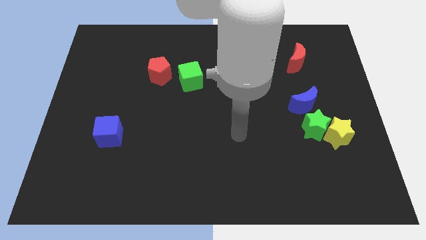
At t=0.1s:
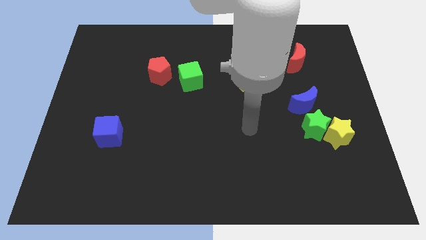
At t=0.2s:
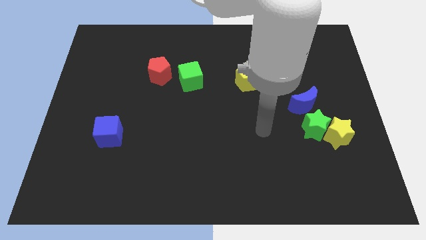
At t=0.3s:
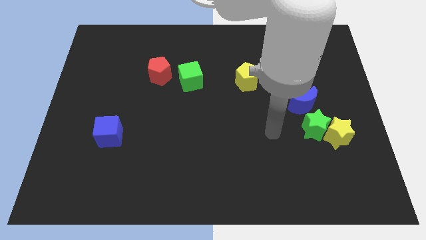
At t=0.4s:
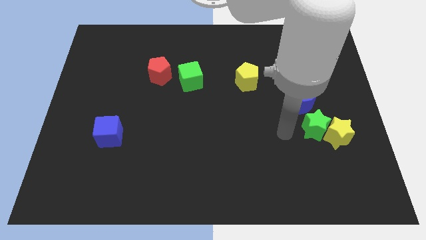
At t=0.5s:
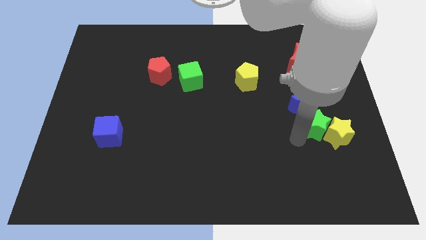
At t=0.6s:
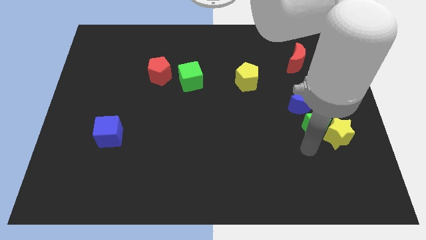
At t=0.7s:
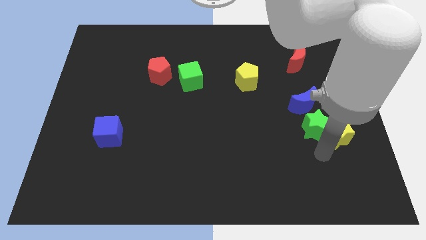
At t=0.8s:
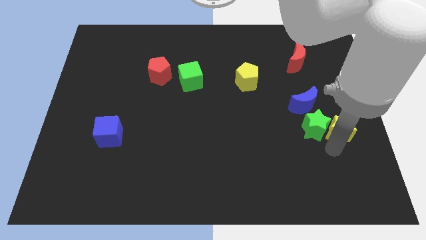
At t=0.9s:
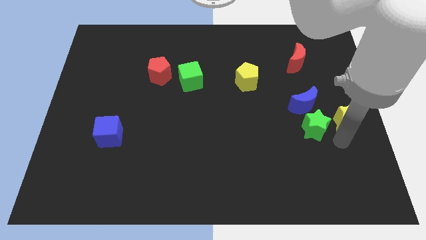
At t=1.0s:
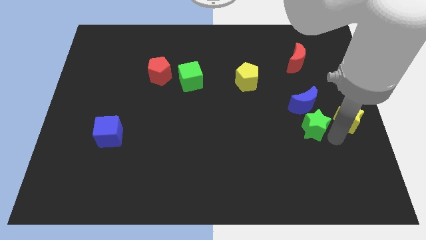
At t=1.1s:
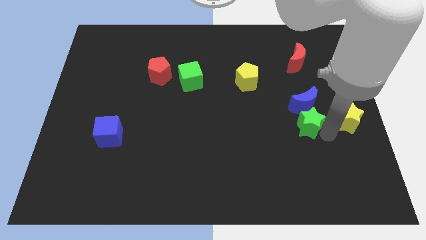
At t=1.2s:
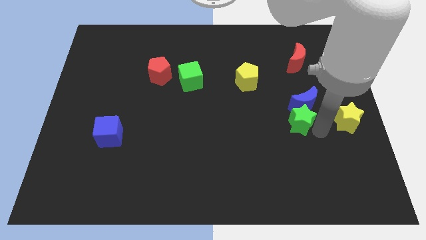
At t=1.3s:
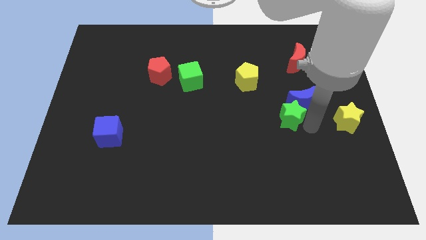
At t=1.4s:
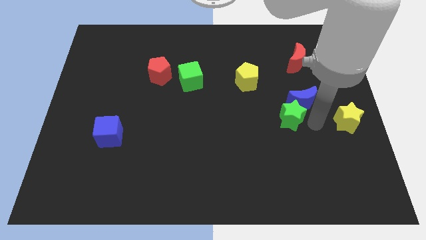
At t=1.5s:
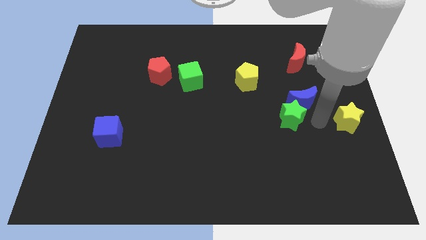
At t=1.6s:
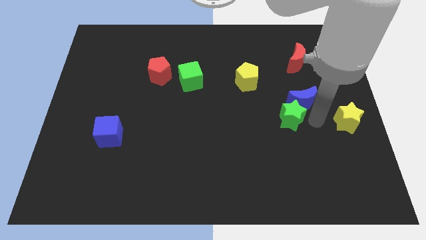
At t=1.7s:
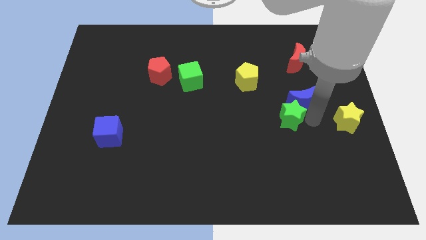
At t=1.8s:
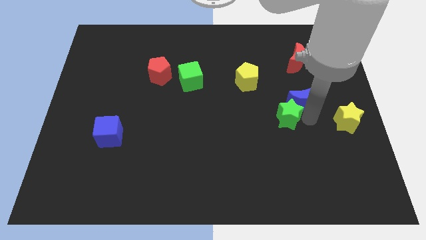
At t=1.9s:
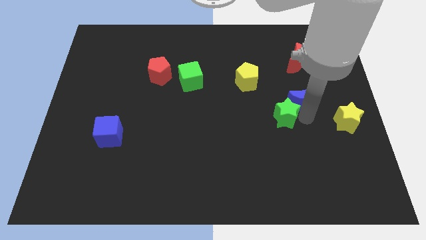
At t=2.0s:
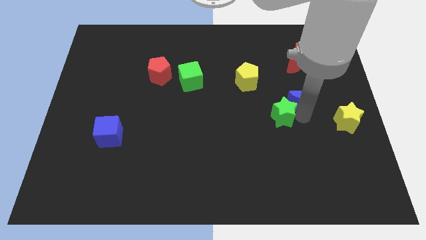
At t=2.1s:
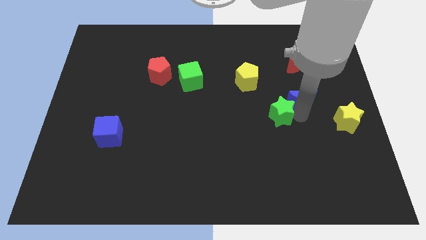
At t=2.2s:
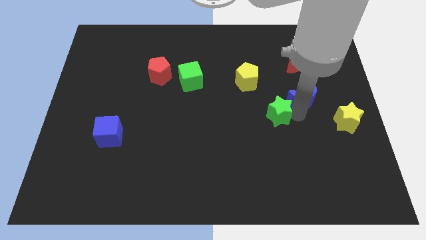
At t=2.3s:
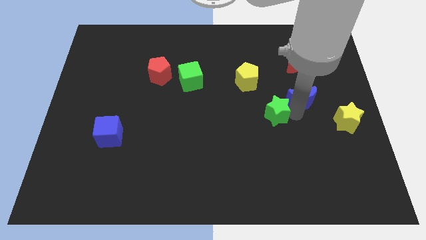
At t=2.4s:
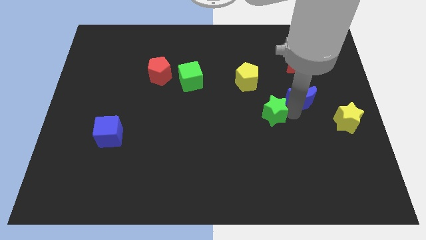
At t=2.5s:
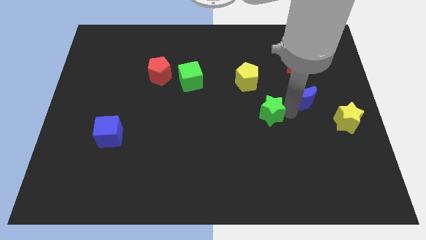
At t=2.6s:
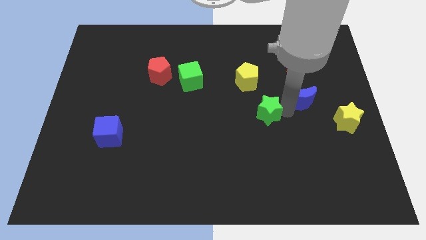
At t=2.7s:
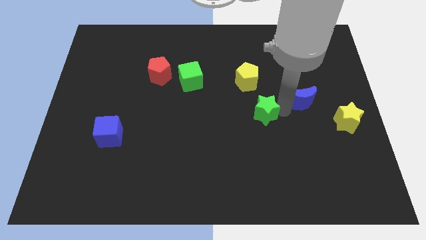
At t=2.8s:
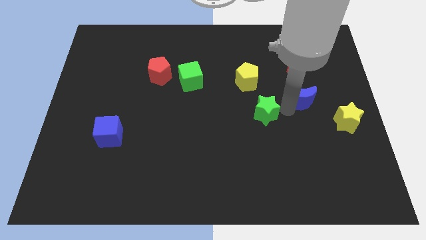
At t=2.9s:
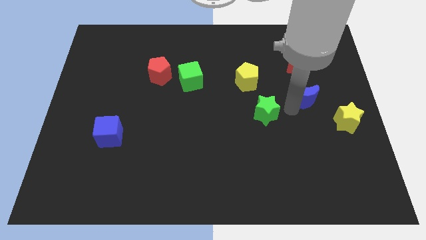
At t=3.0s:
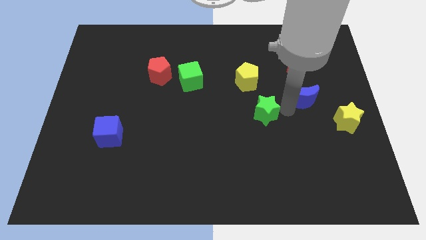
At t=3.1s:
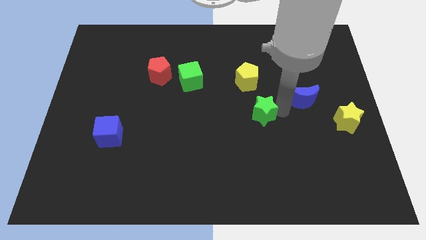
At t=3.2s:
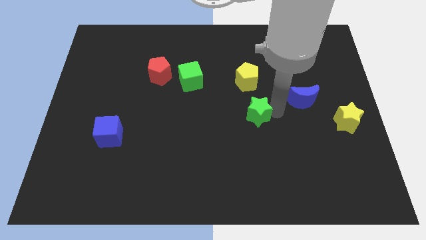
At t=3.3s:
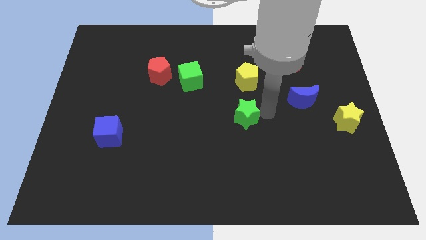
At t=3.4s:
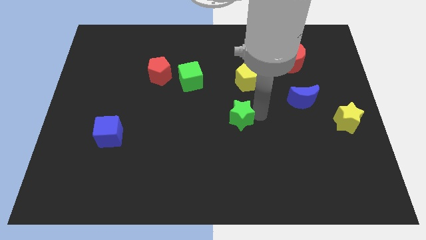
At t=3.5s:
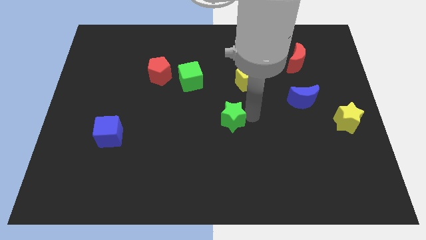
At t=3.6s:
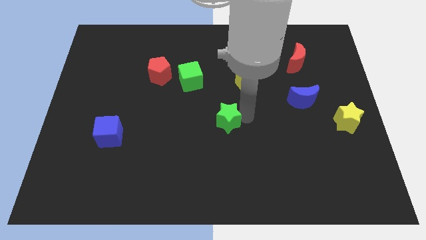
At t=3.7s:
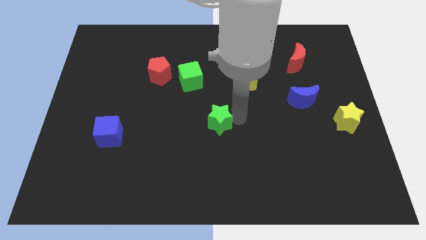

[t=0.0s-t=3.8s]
move the green star left

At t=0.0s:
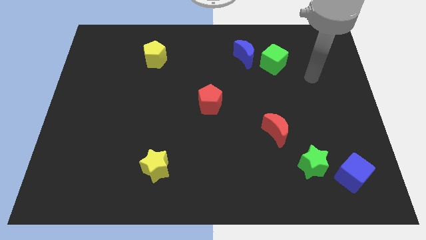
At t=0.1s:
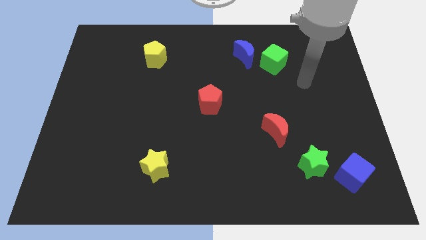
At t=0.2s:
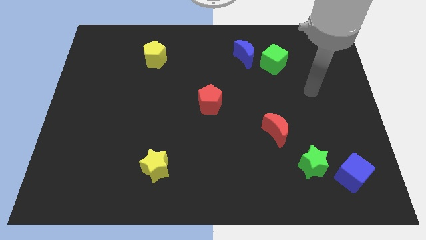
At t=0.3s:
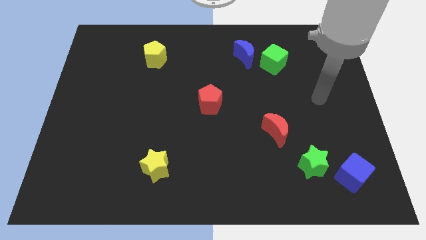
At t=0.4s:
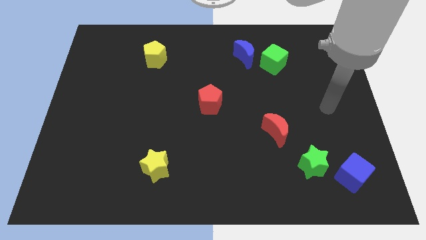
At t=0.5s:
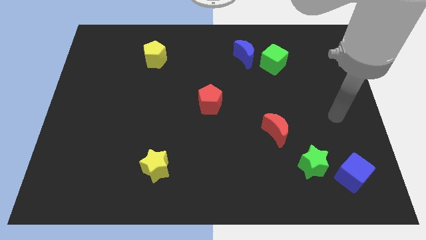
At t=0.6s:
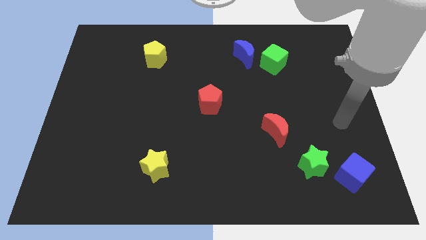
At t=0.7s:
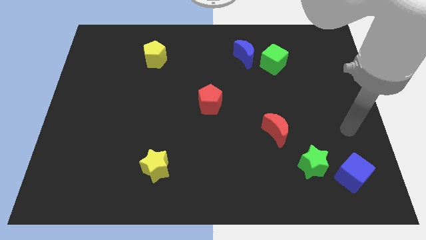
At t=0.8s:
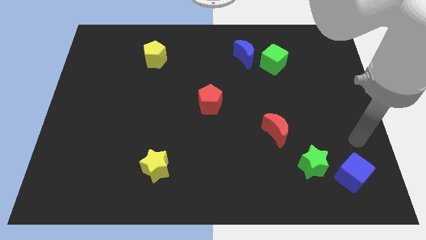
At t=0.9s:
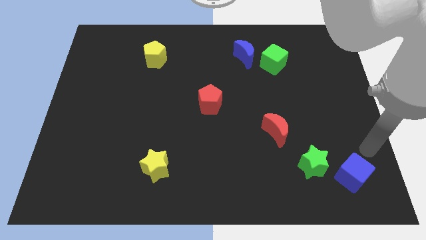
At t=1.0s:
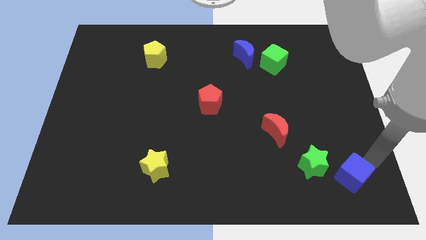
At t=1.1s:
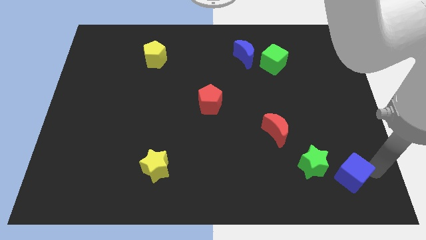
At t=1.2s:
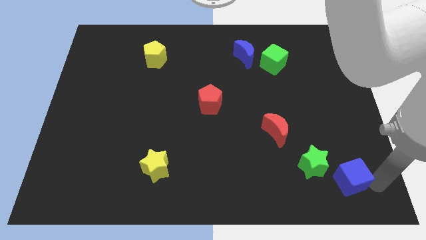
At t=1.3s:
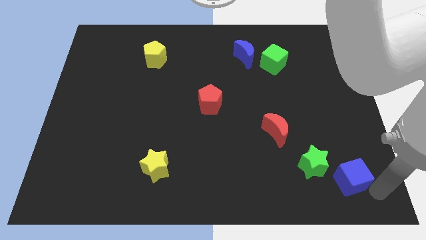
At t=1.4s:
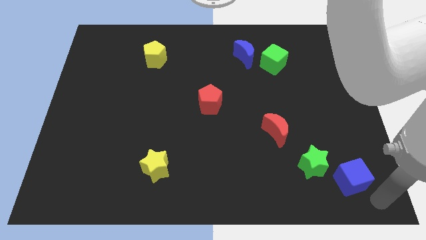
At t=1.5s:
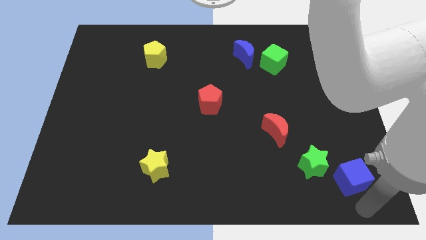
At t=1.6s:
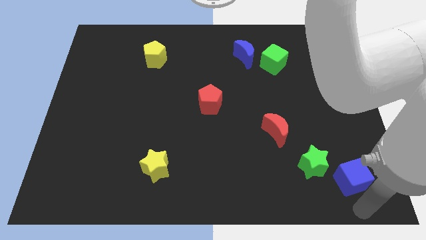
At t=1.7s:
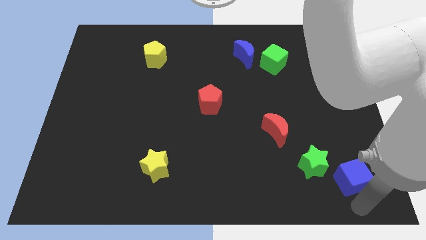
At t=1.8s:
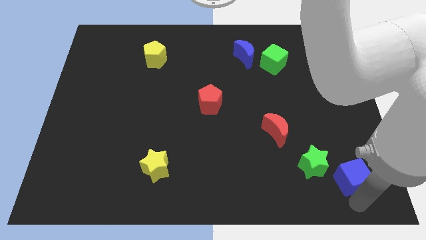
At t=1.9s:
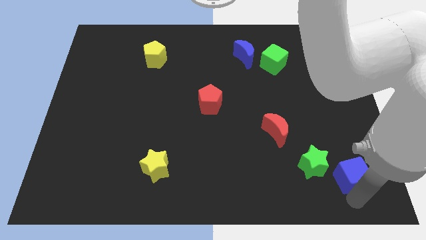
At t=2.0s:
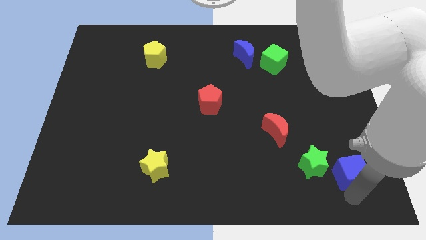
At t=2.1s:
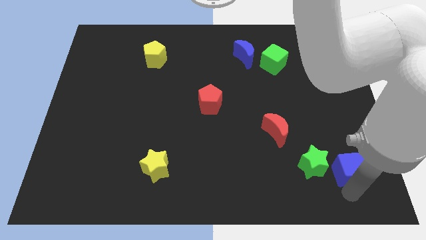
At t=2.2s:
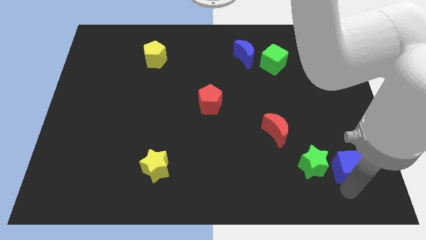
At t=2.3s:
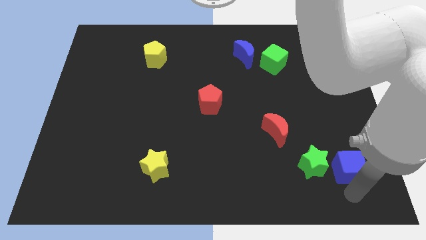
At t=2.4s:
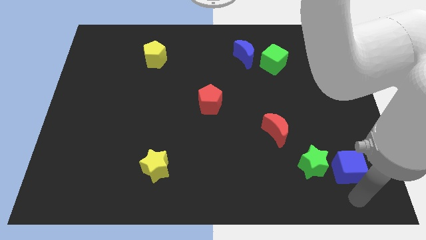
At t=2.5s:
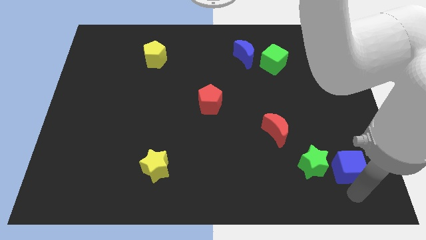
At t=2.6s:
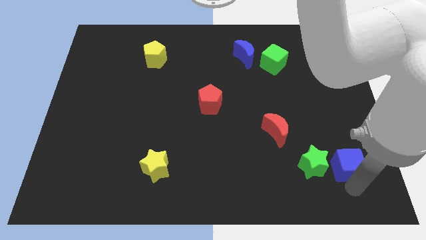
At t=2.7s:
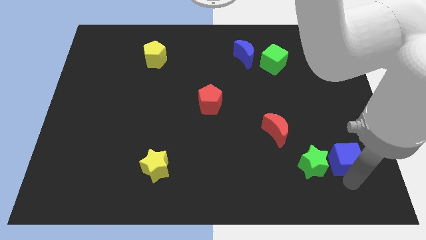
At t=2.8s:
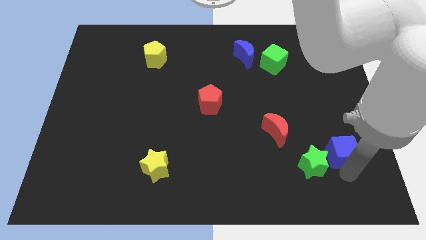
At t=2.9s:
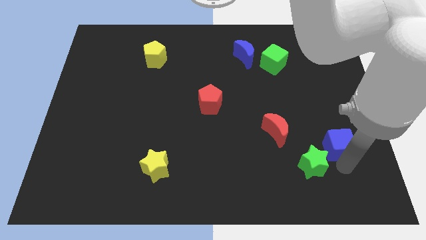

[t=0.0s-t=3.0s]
push the blue cube somewhat up

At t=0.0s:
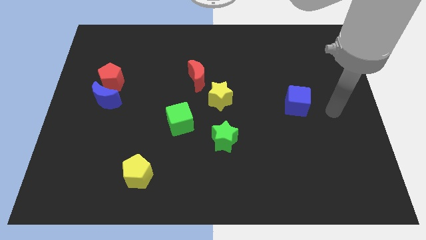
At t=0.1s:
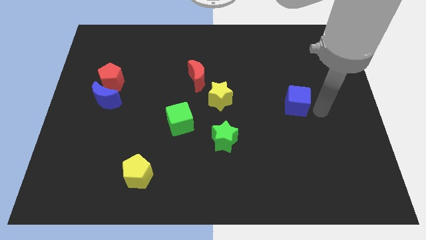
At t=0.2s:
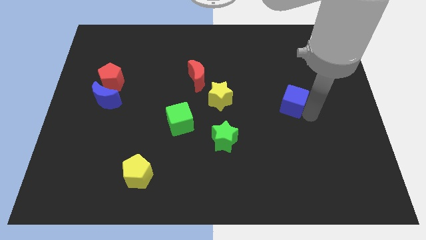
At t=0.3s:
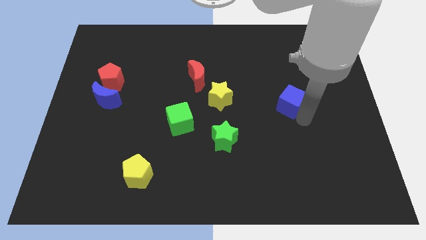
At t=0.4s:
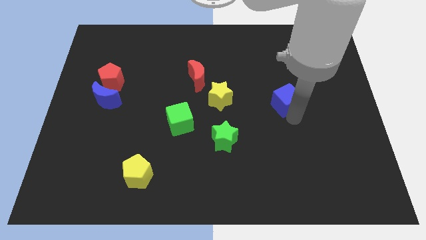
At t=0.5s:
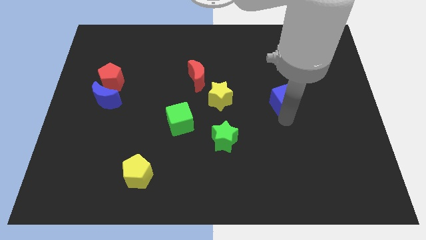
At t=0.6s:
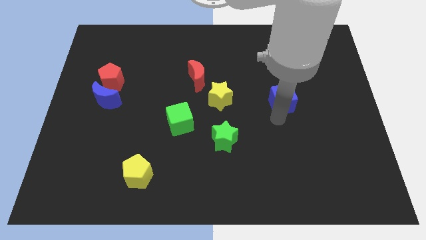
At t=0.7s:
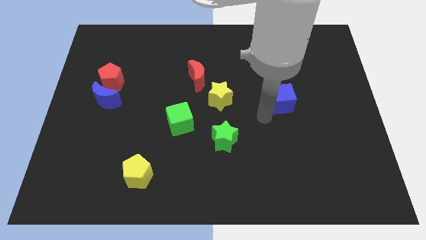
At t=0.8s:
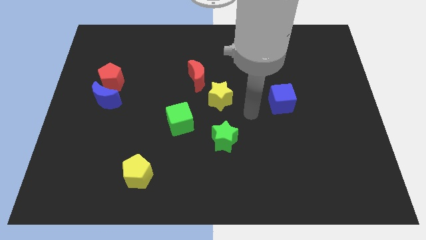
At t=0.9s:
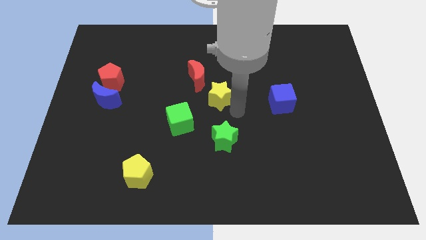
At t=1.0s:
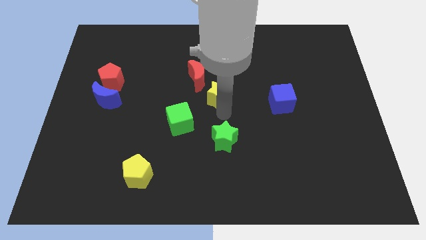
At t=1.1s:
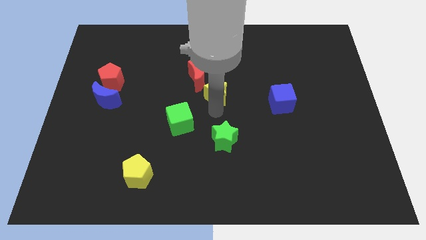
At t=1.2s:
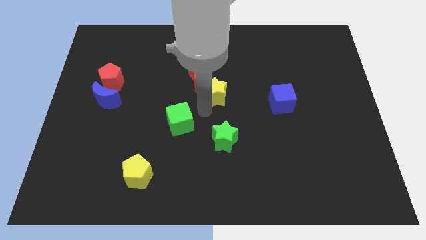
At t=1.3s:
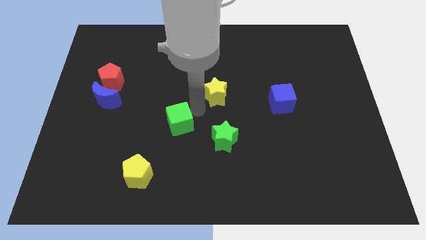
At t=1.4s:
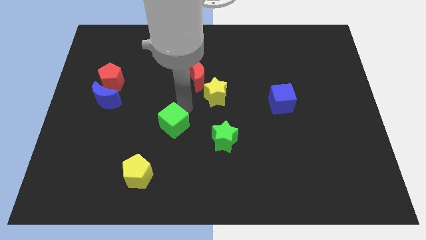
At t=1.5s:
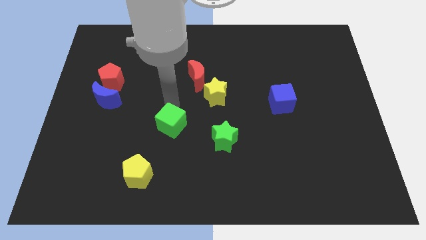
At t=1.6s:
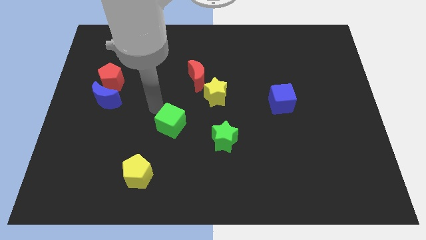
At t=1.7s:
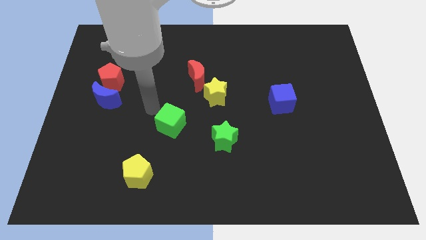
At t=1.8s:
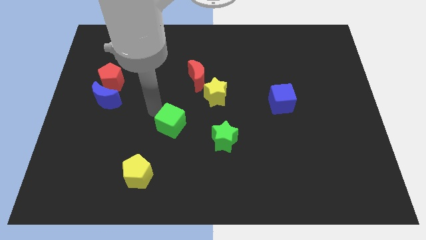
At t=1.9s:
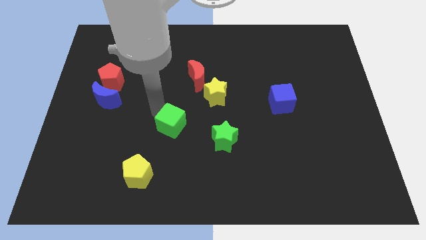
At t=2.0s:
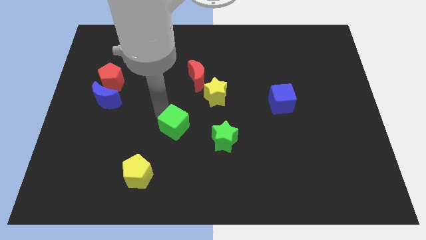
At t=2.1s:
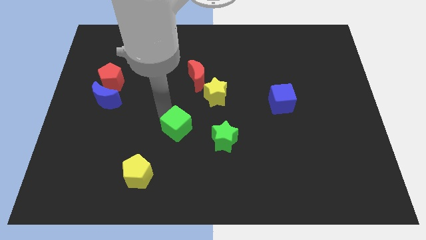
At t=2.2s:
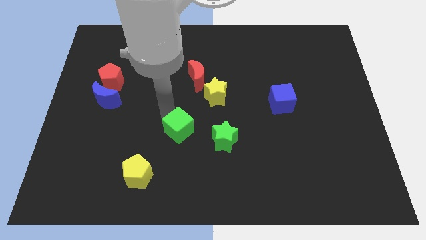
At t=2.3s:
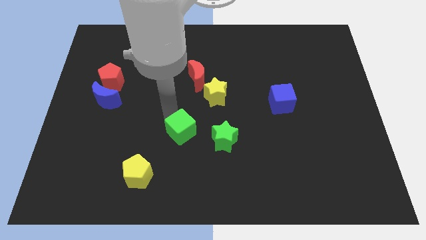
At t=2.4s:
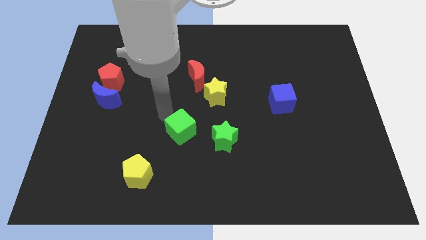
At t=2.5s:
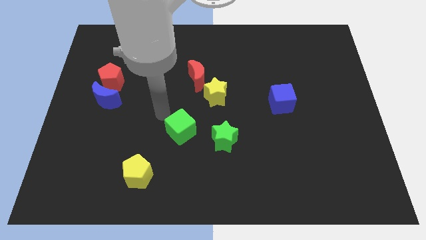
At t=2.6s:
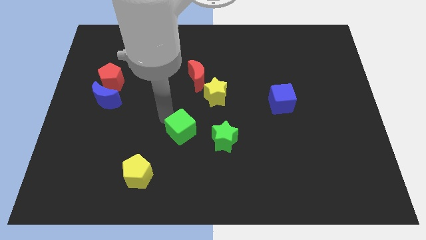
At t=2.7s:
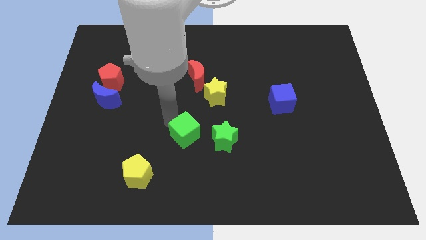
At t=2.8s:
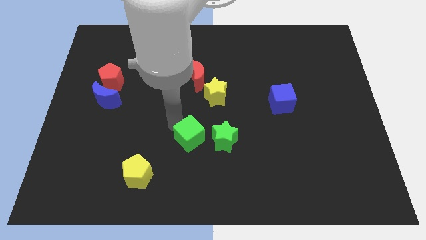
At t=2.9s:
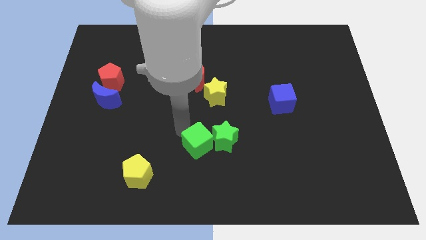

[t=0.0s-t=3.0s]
move the green cube down and then right slightly
